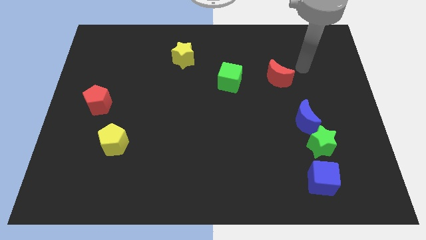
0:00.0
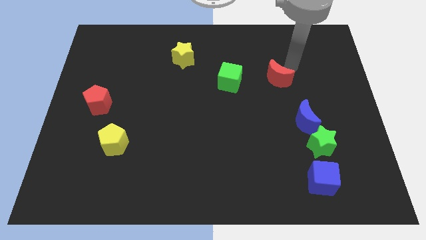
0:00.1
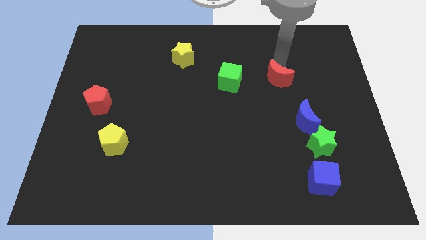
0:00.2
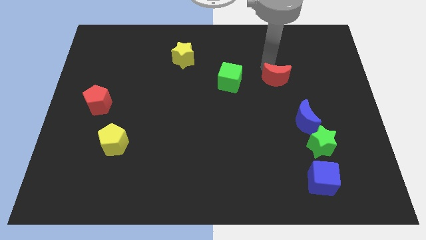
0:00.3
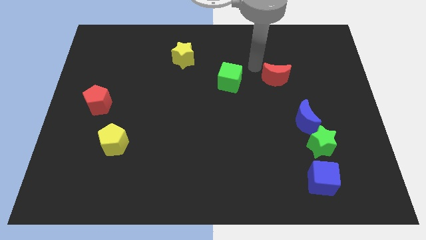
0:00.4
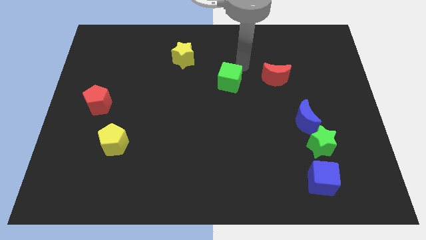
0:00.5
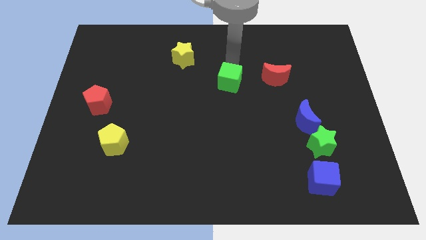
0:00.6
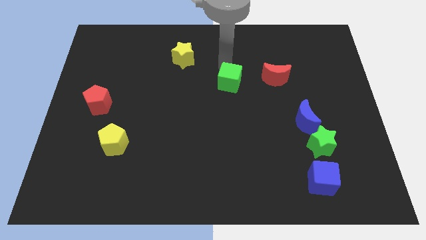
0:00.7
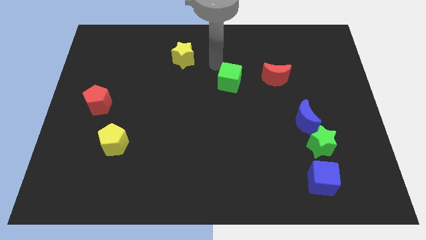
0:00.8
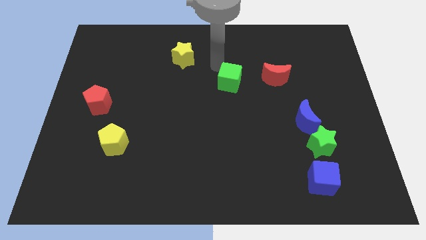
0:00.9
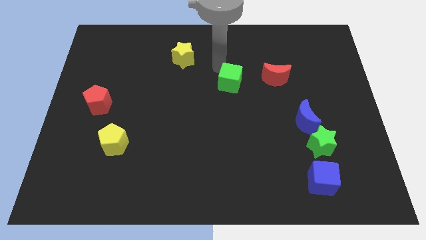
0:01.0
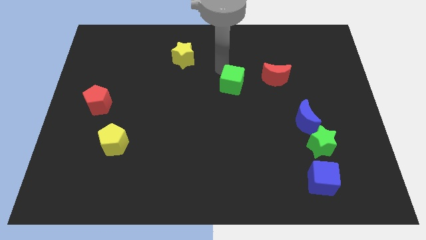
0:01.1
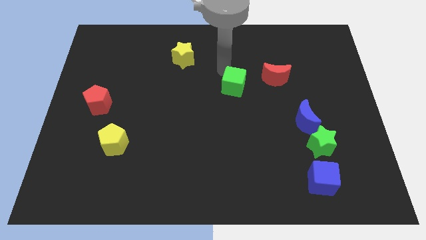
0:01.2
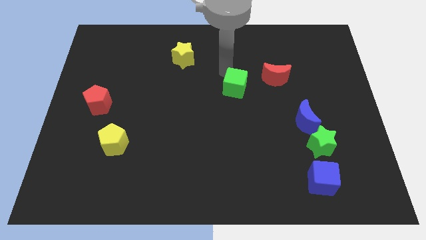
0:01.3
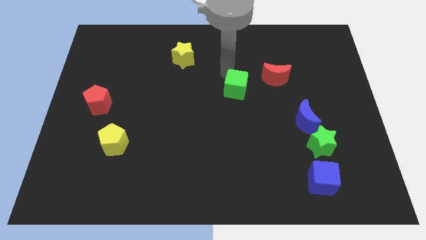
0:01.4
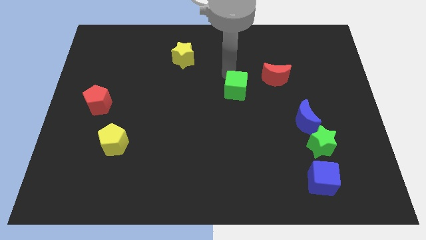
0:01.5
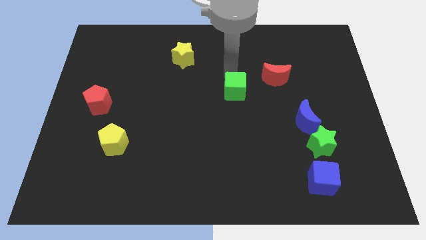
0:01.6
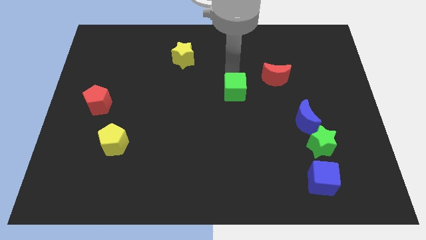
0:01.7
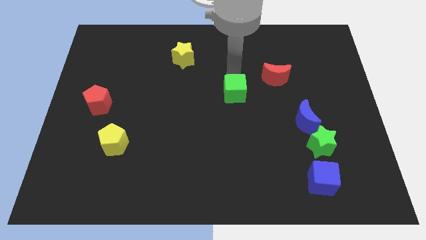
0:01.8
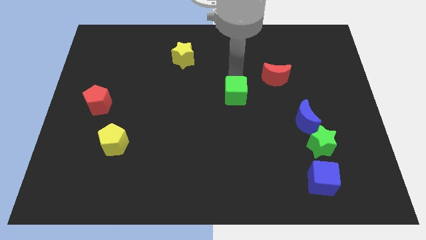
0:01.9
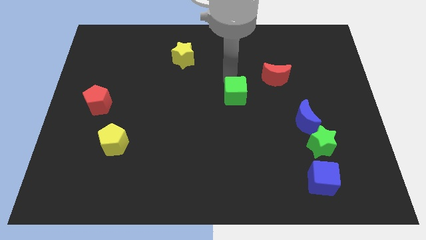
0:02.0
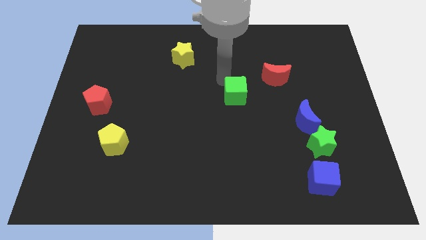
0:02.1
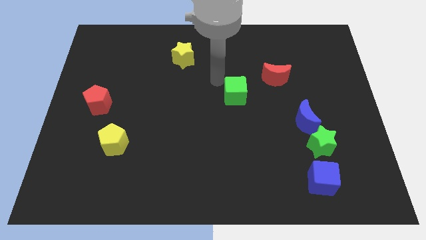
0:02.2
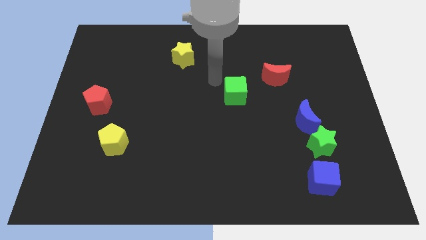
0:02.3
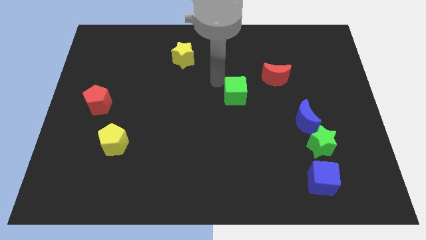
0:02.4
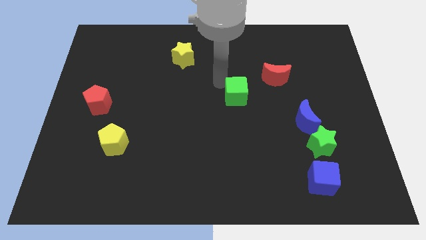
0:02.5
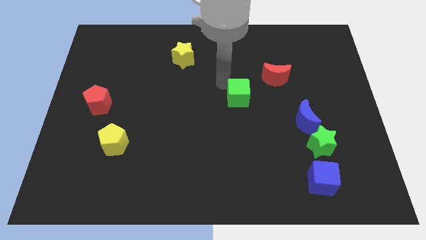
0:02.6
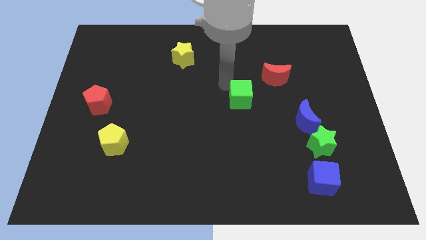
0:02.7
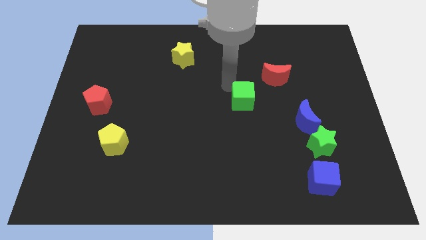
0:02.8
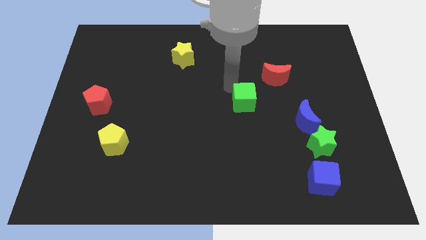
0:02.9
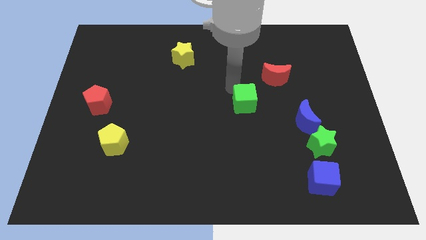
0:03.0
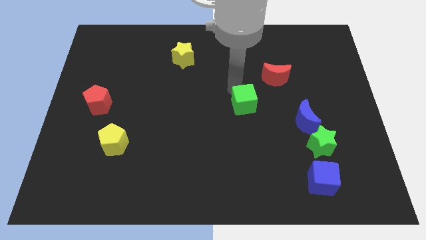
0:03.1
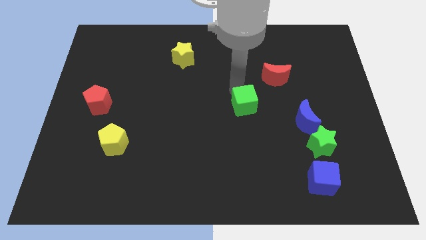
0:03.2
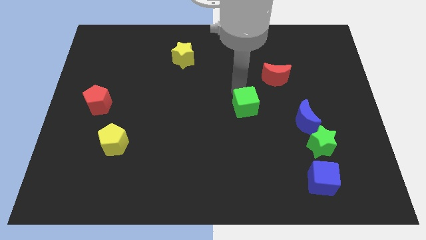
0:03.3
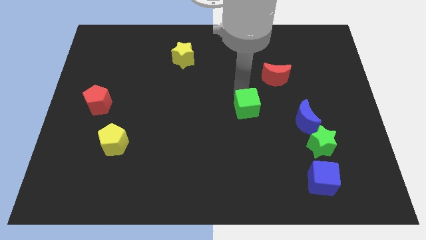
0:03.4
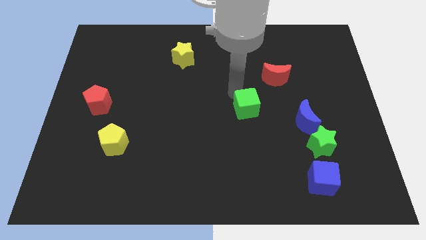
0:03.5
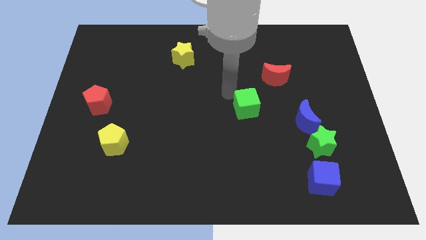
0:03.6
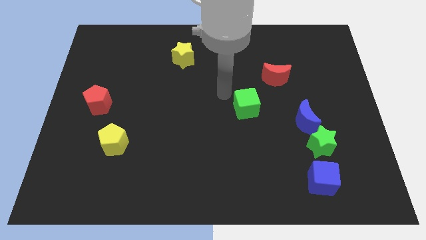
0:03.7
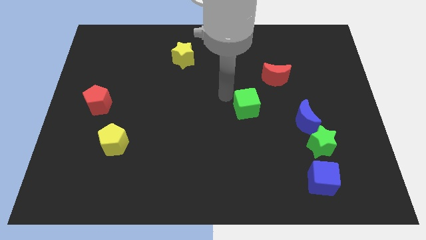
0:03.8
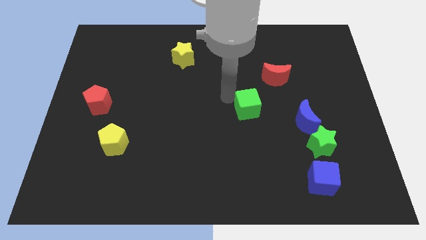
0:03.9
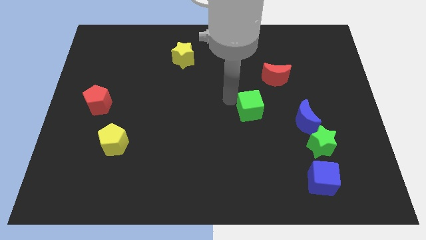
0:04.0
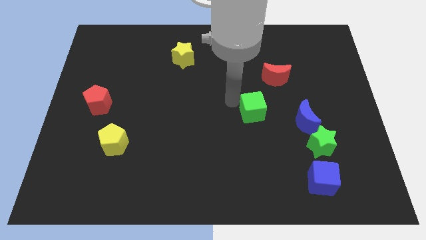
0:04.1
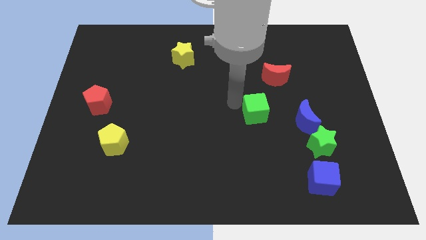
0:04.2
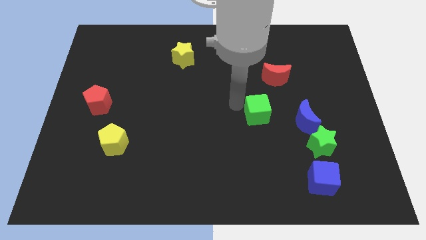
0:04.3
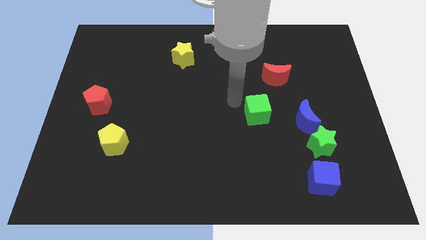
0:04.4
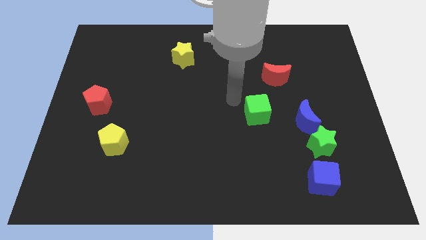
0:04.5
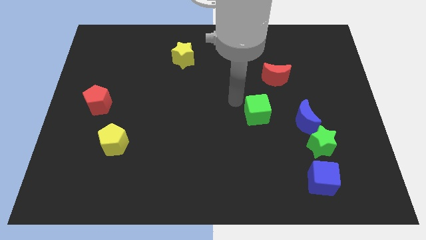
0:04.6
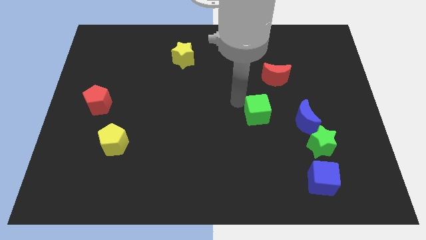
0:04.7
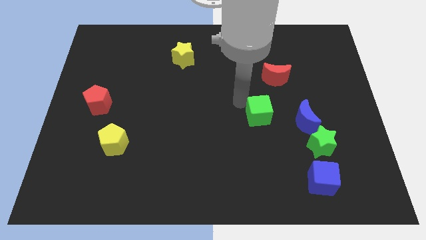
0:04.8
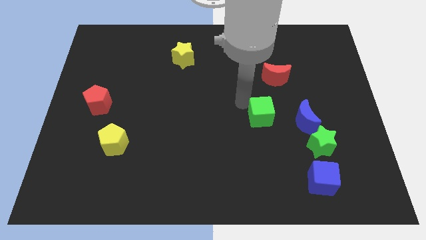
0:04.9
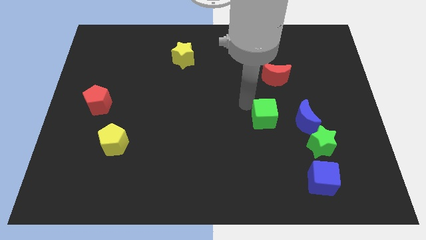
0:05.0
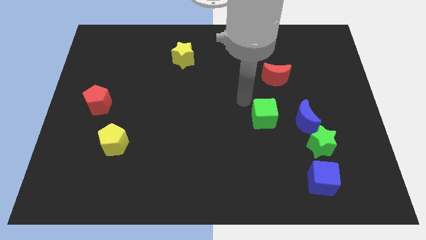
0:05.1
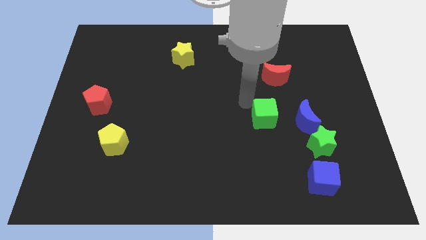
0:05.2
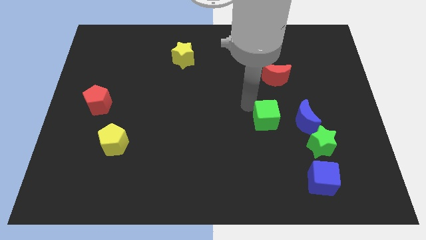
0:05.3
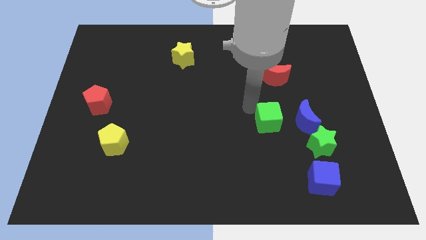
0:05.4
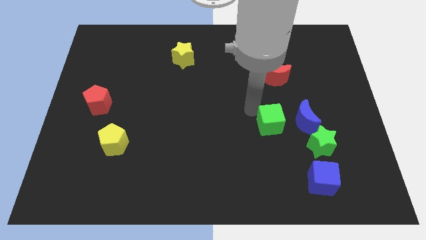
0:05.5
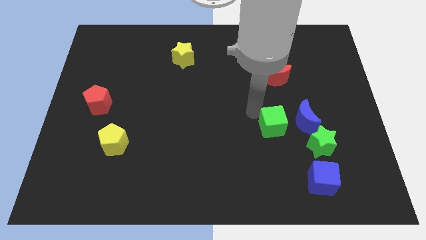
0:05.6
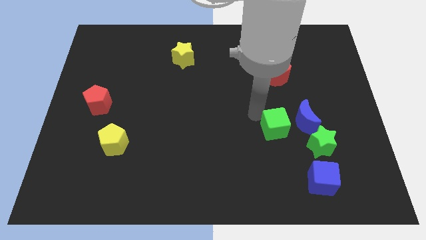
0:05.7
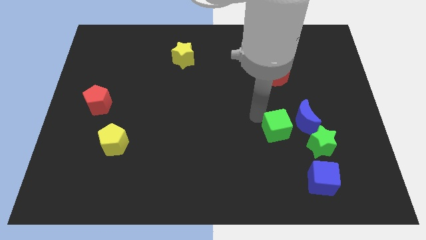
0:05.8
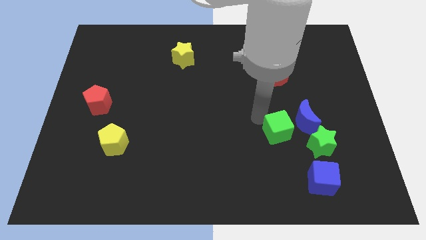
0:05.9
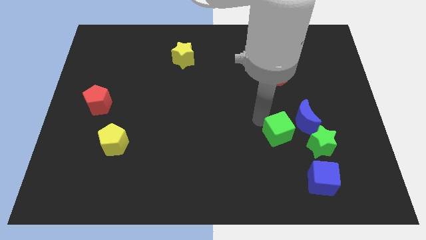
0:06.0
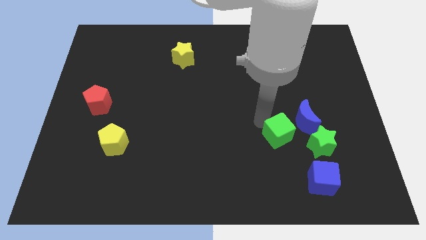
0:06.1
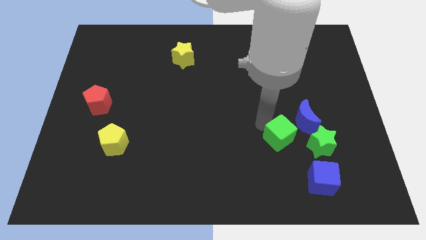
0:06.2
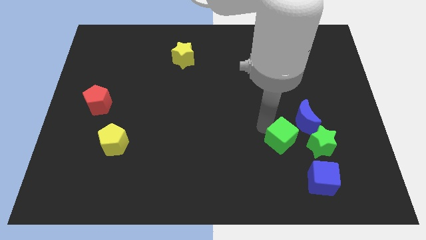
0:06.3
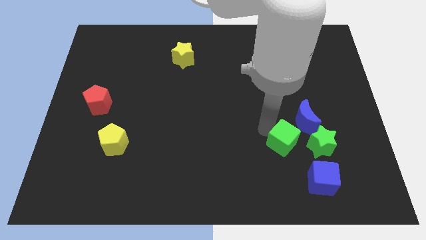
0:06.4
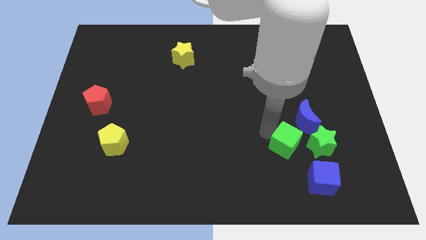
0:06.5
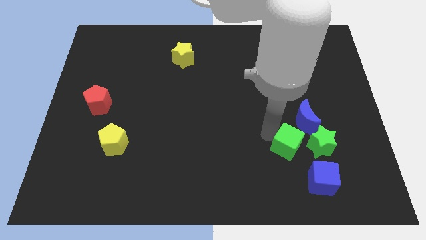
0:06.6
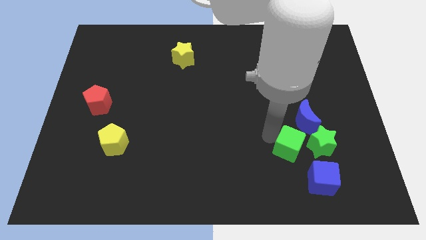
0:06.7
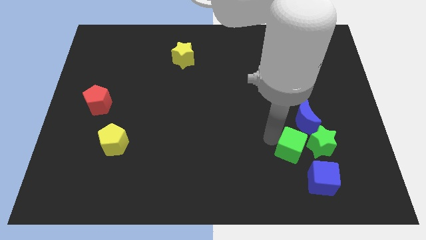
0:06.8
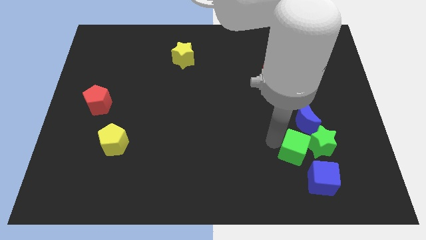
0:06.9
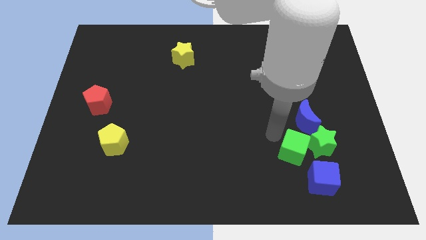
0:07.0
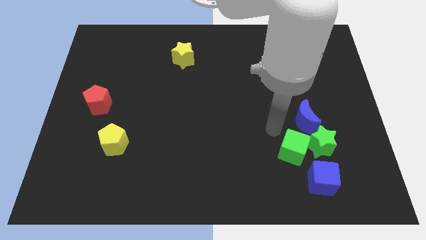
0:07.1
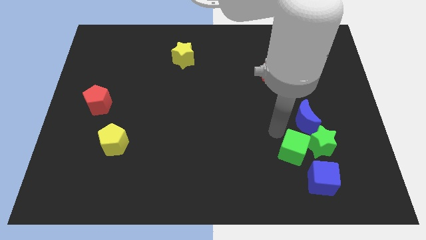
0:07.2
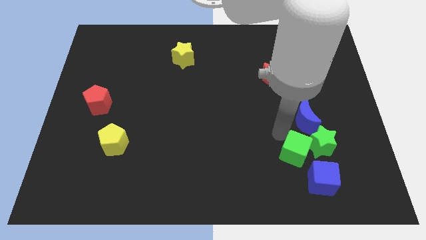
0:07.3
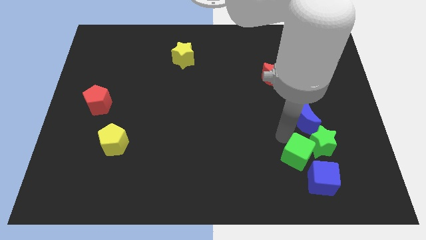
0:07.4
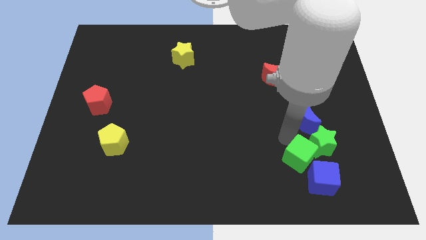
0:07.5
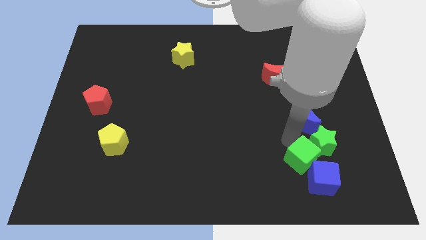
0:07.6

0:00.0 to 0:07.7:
slide the green cube to the blue cube
